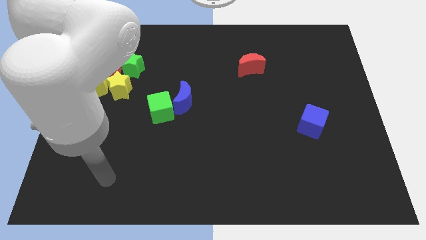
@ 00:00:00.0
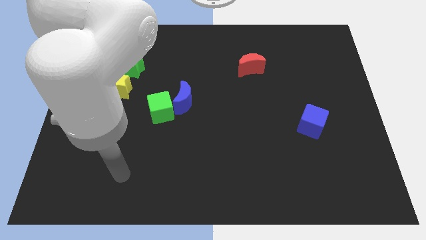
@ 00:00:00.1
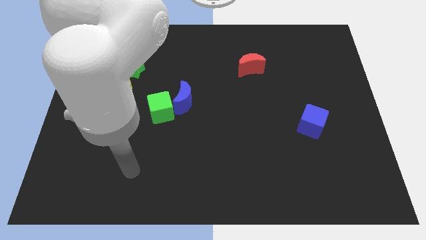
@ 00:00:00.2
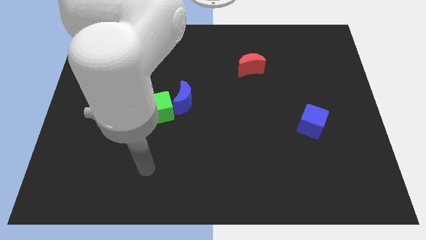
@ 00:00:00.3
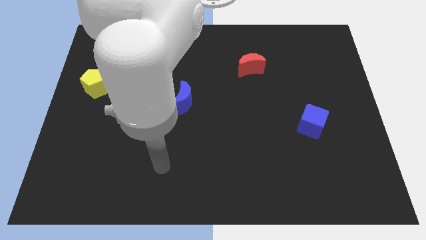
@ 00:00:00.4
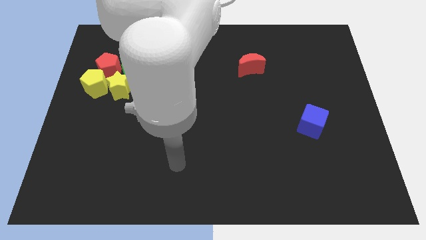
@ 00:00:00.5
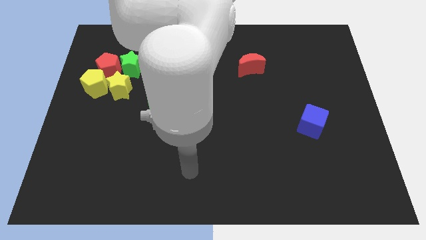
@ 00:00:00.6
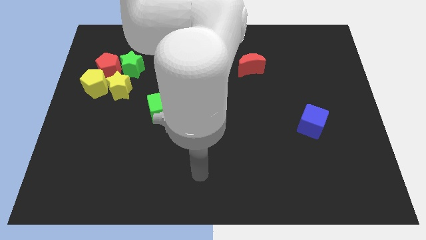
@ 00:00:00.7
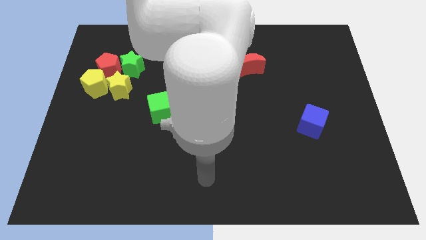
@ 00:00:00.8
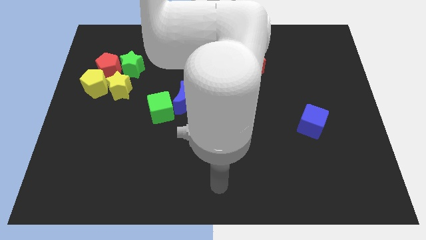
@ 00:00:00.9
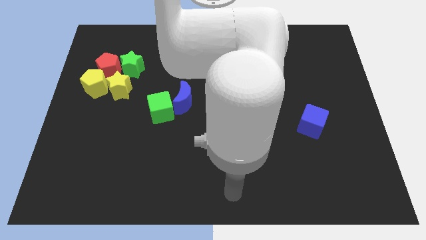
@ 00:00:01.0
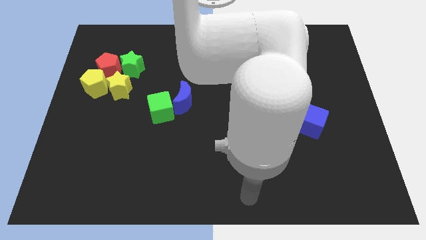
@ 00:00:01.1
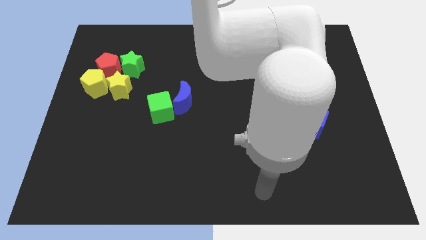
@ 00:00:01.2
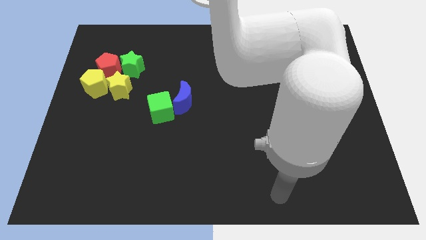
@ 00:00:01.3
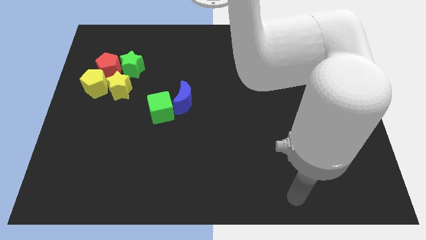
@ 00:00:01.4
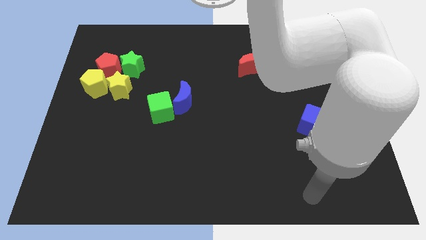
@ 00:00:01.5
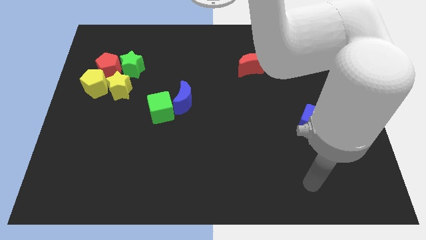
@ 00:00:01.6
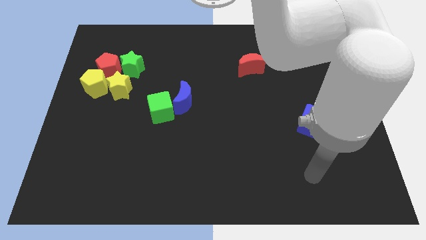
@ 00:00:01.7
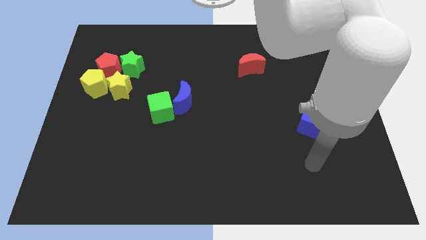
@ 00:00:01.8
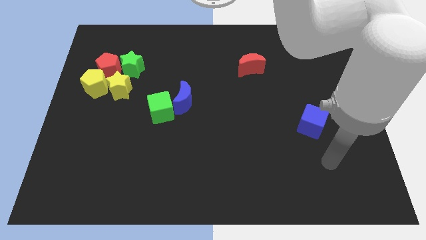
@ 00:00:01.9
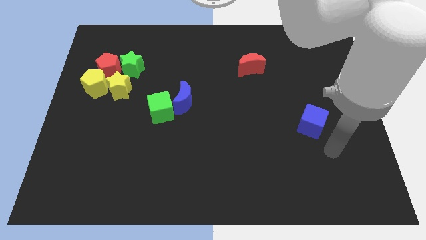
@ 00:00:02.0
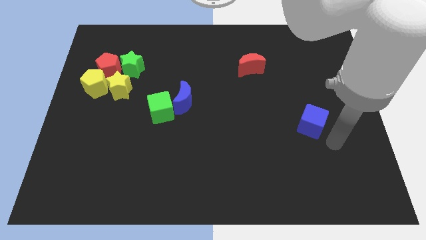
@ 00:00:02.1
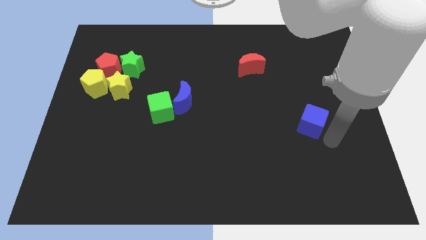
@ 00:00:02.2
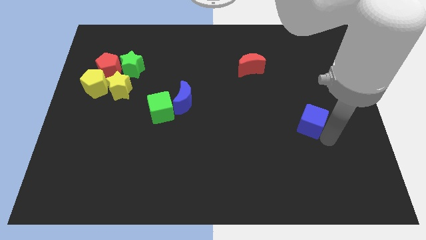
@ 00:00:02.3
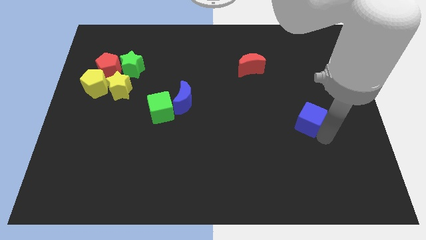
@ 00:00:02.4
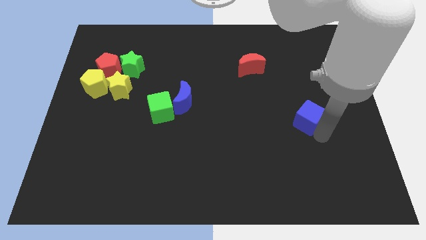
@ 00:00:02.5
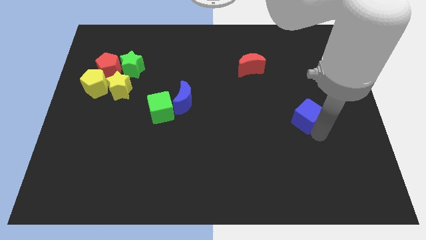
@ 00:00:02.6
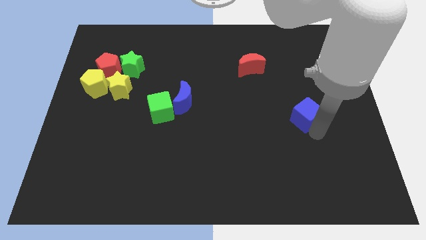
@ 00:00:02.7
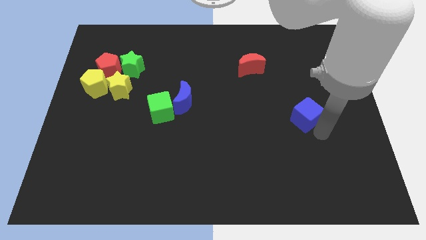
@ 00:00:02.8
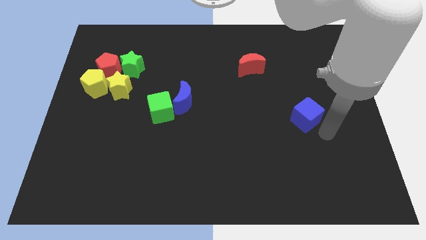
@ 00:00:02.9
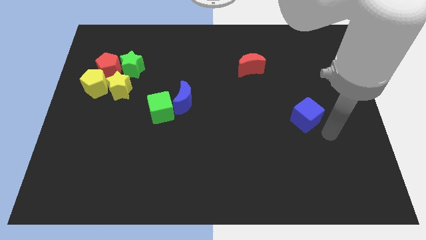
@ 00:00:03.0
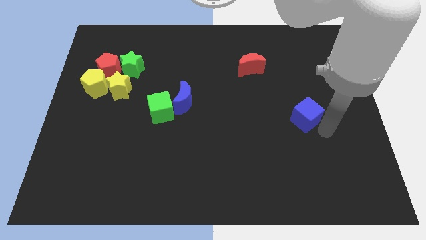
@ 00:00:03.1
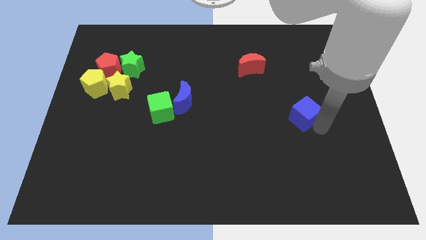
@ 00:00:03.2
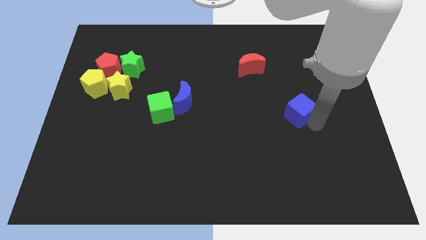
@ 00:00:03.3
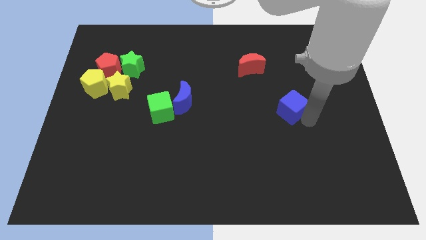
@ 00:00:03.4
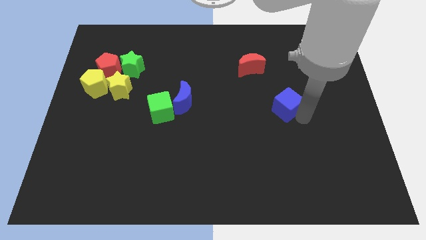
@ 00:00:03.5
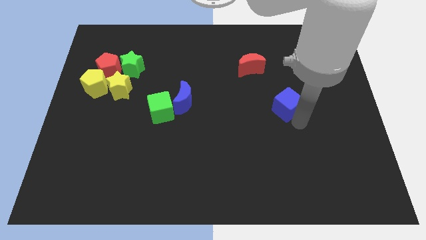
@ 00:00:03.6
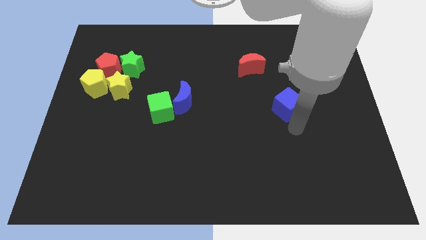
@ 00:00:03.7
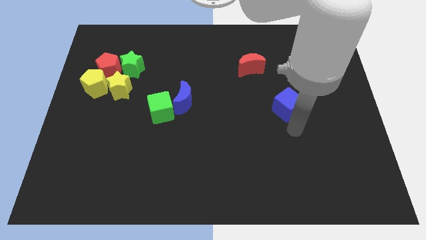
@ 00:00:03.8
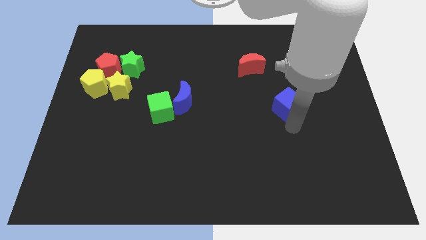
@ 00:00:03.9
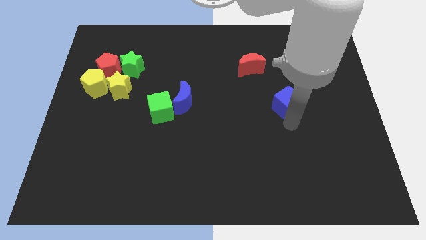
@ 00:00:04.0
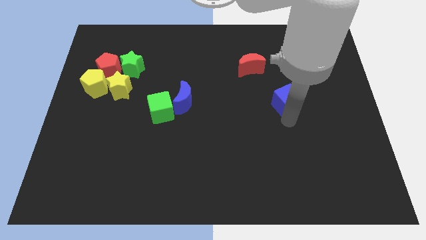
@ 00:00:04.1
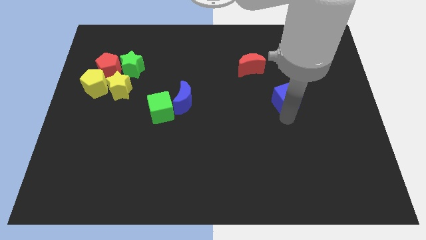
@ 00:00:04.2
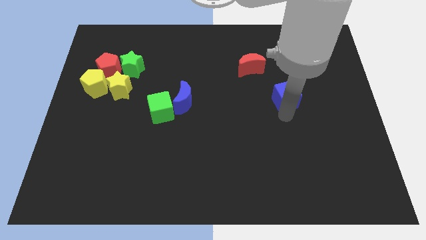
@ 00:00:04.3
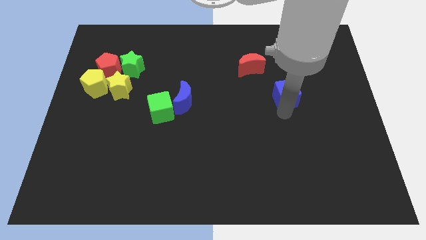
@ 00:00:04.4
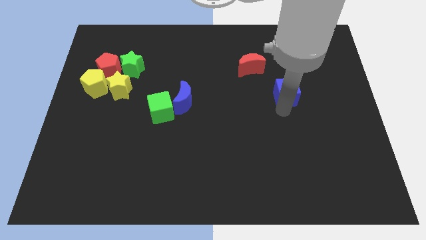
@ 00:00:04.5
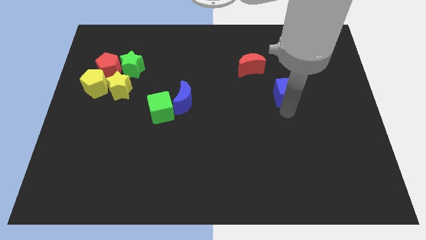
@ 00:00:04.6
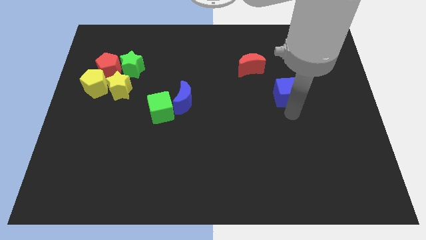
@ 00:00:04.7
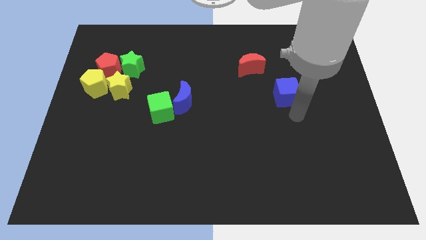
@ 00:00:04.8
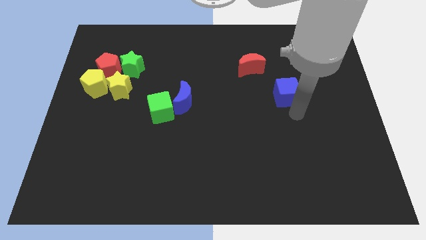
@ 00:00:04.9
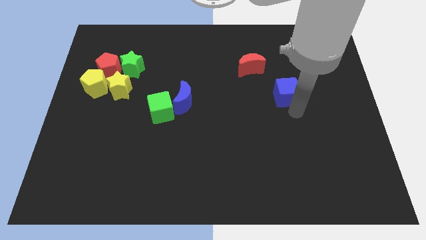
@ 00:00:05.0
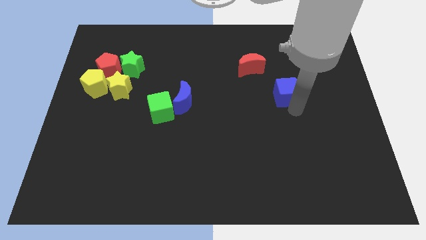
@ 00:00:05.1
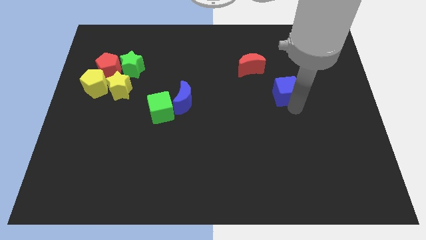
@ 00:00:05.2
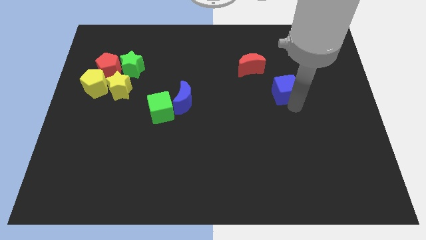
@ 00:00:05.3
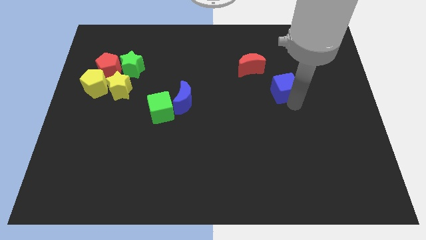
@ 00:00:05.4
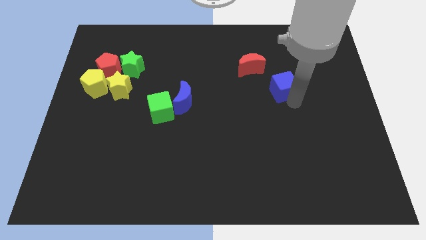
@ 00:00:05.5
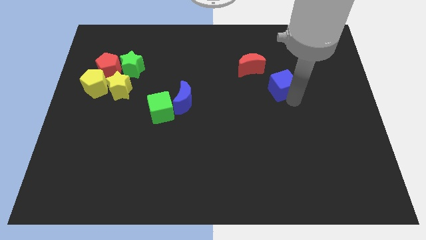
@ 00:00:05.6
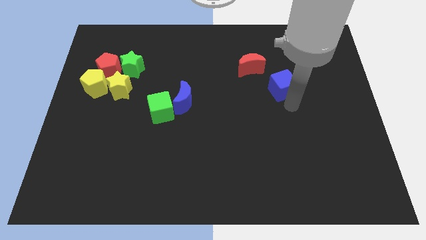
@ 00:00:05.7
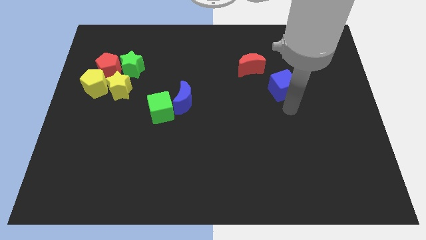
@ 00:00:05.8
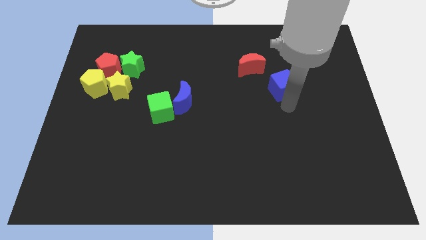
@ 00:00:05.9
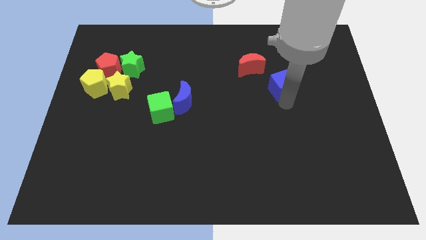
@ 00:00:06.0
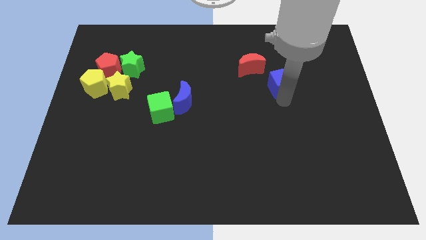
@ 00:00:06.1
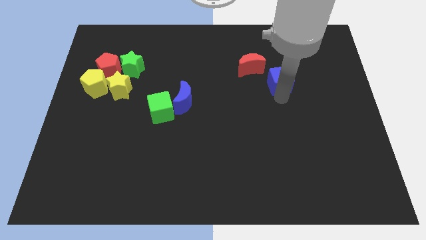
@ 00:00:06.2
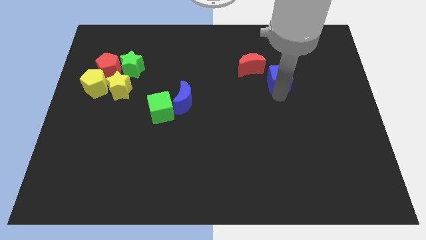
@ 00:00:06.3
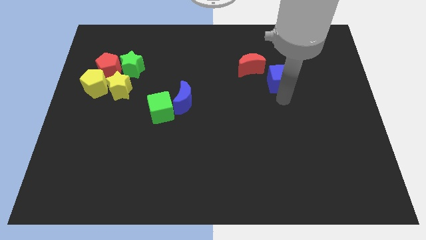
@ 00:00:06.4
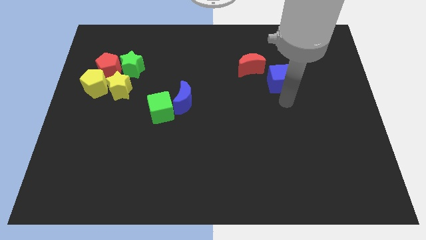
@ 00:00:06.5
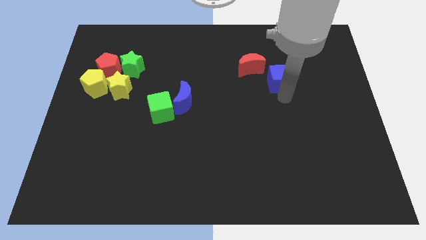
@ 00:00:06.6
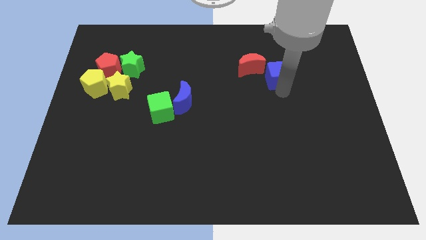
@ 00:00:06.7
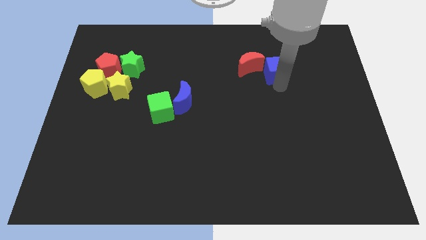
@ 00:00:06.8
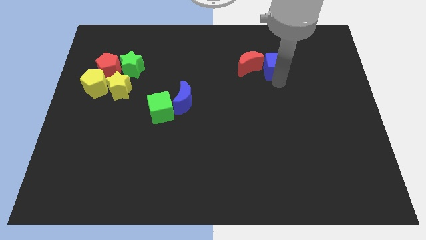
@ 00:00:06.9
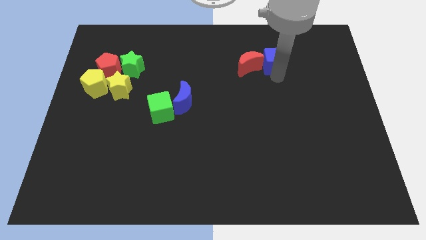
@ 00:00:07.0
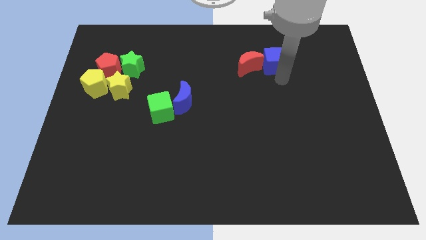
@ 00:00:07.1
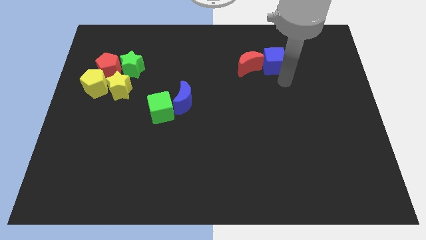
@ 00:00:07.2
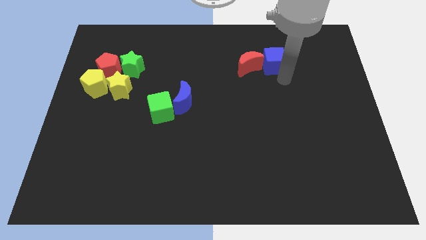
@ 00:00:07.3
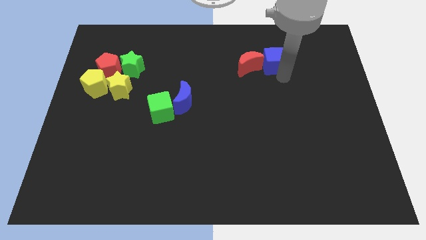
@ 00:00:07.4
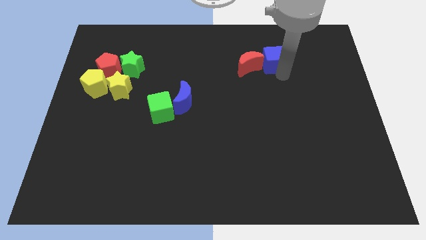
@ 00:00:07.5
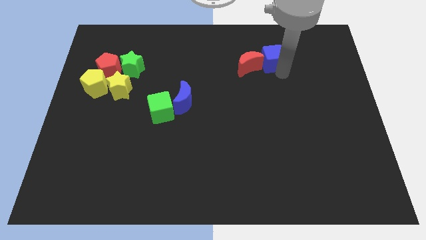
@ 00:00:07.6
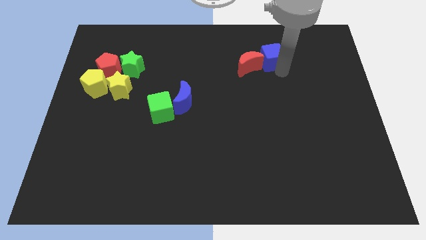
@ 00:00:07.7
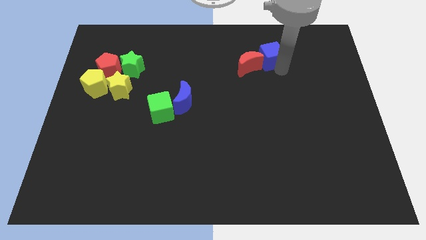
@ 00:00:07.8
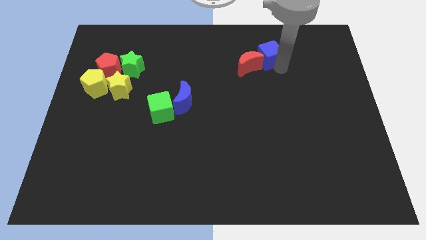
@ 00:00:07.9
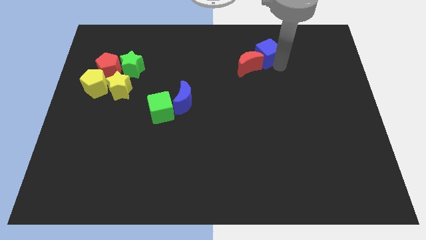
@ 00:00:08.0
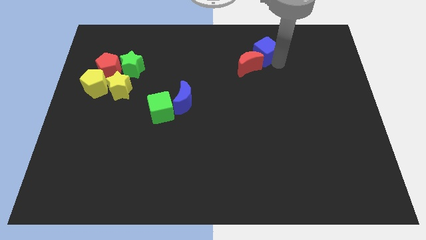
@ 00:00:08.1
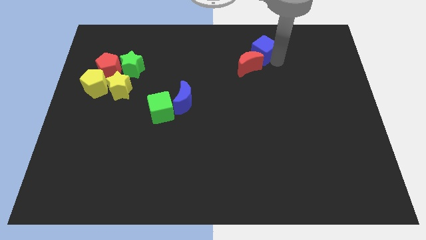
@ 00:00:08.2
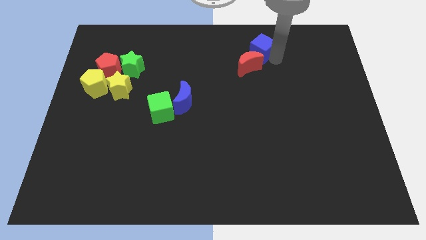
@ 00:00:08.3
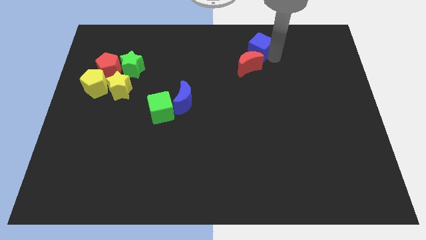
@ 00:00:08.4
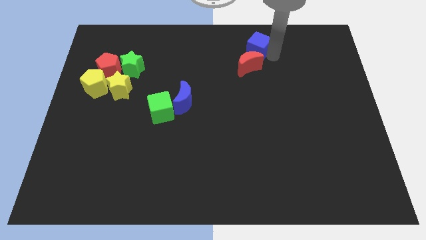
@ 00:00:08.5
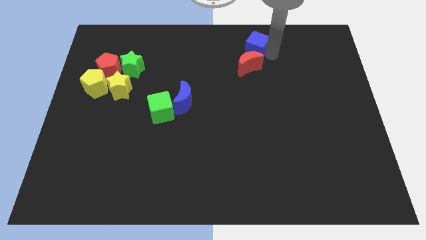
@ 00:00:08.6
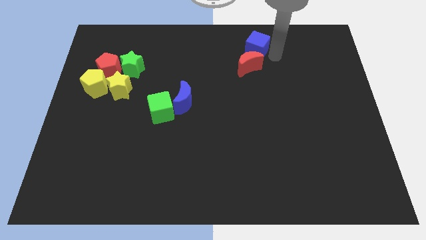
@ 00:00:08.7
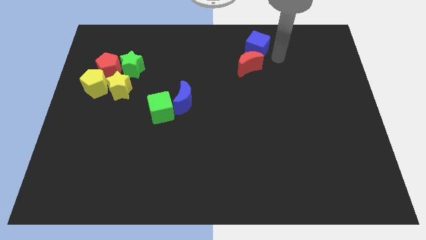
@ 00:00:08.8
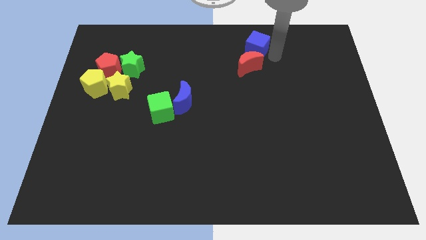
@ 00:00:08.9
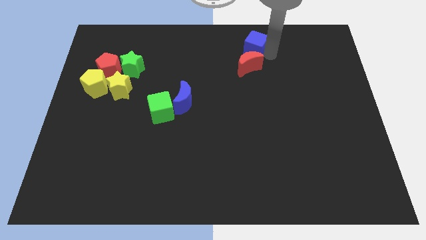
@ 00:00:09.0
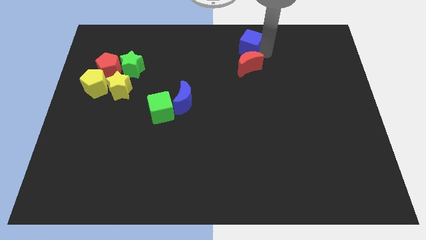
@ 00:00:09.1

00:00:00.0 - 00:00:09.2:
push the blue cube to the top side
